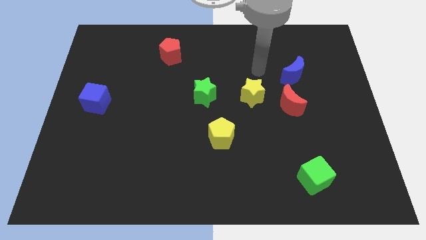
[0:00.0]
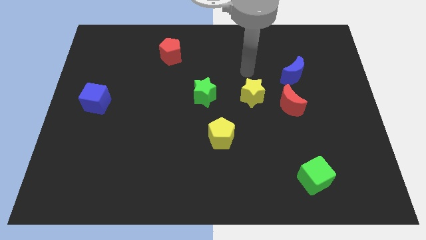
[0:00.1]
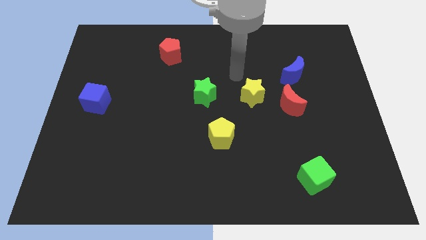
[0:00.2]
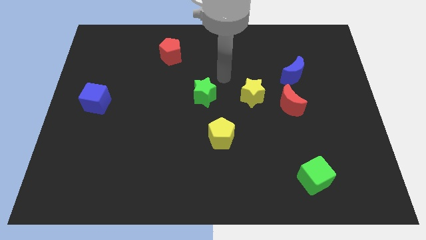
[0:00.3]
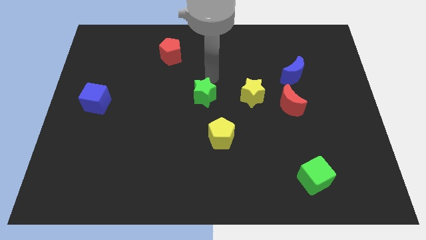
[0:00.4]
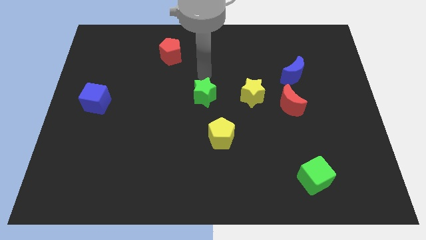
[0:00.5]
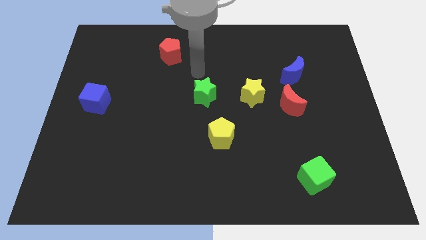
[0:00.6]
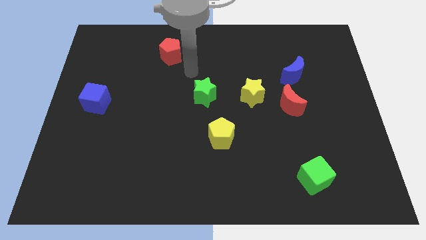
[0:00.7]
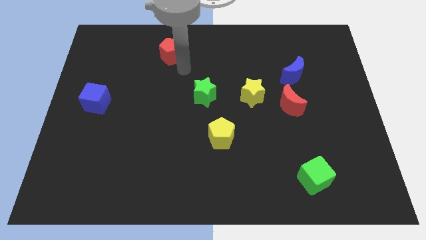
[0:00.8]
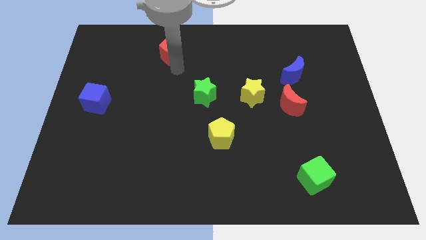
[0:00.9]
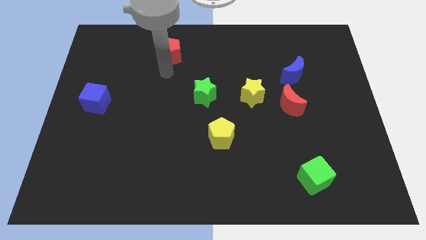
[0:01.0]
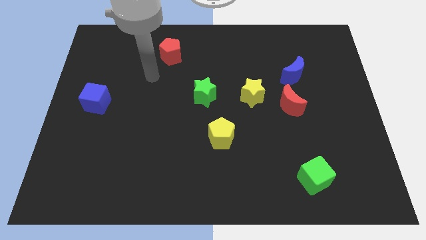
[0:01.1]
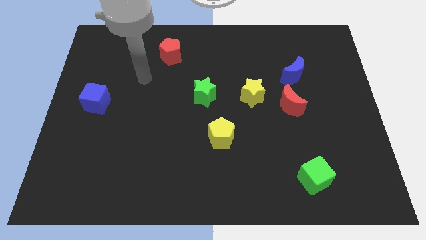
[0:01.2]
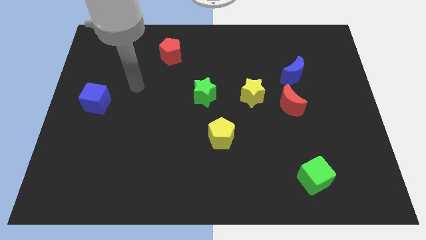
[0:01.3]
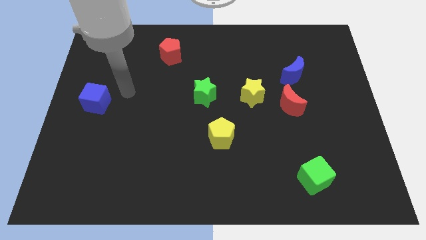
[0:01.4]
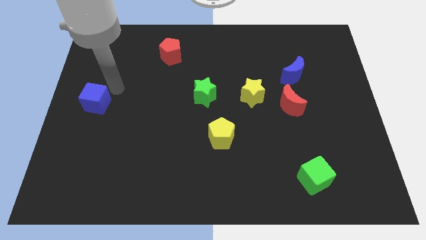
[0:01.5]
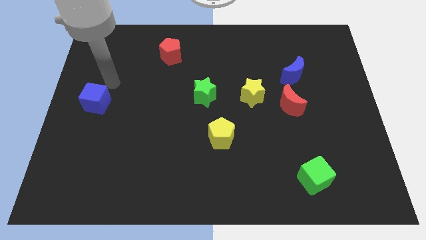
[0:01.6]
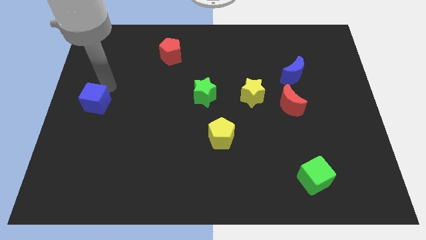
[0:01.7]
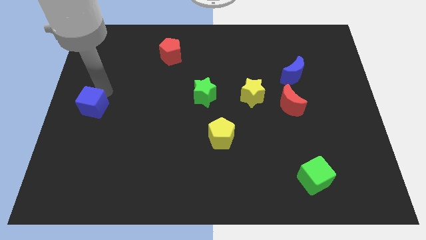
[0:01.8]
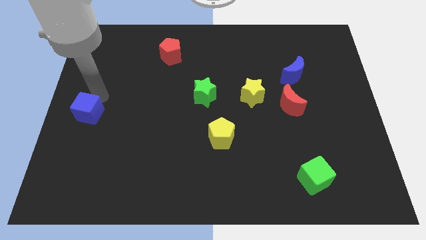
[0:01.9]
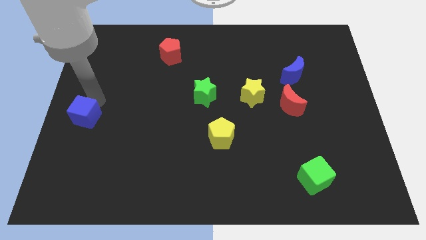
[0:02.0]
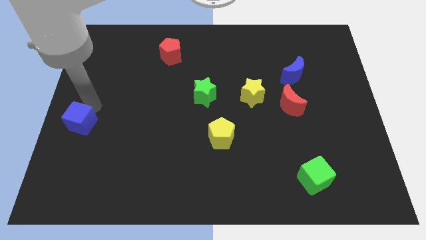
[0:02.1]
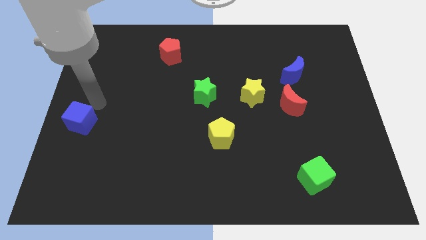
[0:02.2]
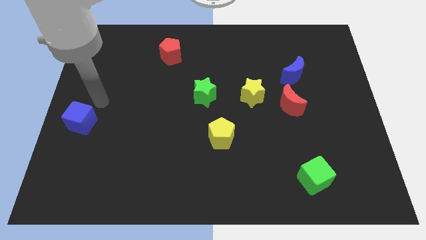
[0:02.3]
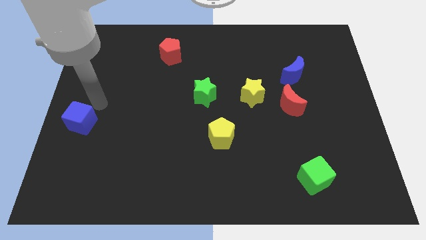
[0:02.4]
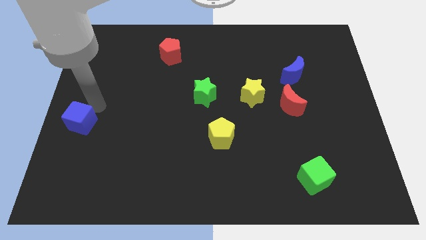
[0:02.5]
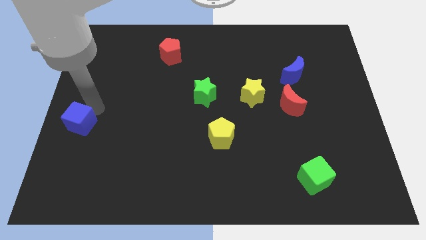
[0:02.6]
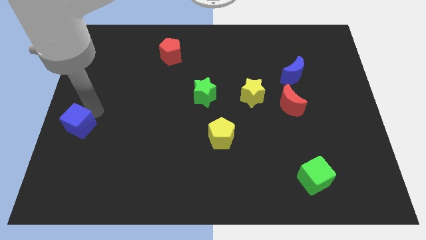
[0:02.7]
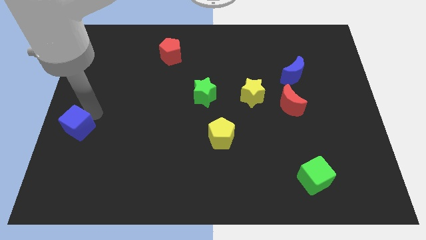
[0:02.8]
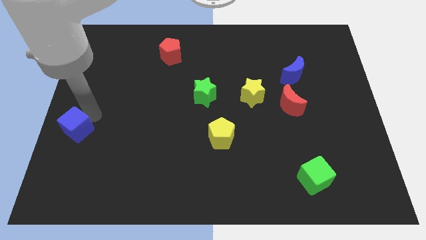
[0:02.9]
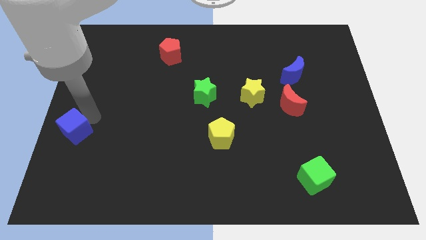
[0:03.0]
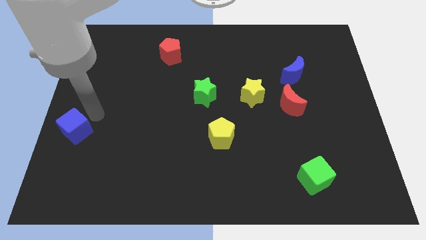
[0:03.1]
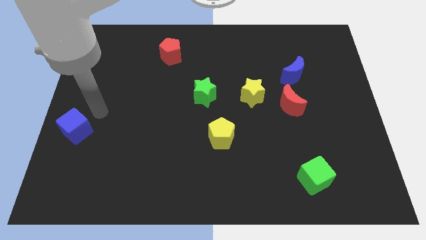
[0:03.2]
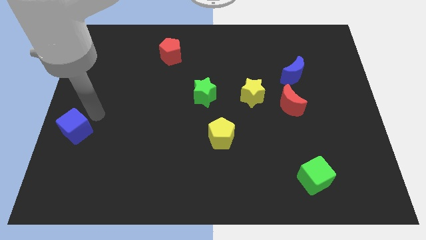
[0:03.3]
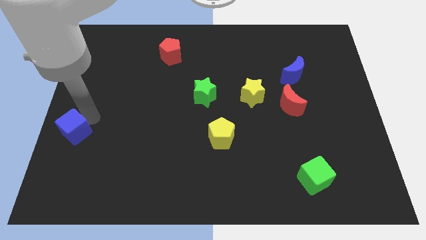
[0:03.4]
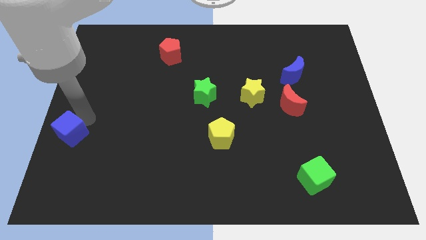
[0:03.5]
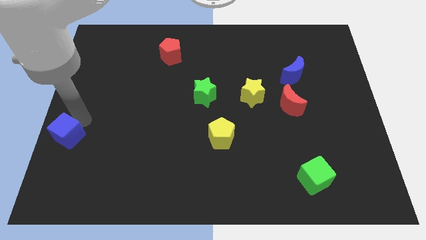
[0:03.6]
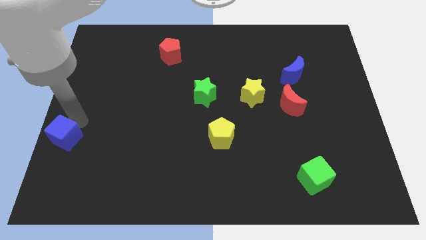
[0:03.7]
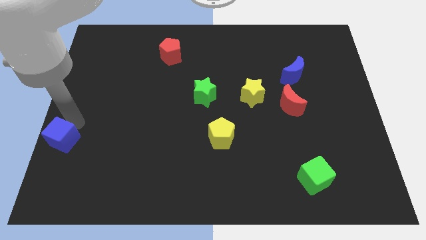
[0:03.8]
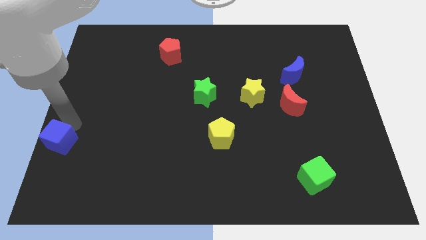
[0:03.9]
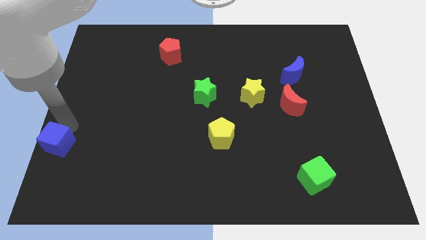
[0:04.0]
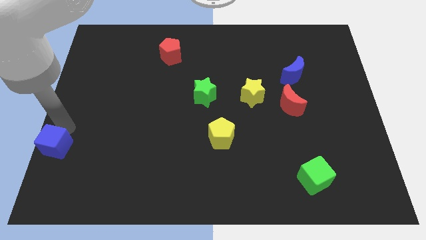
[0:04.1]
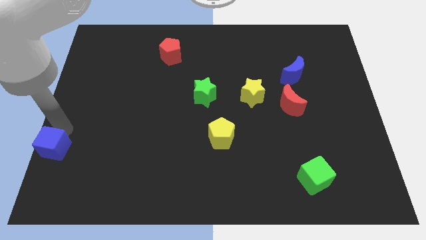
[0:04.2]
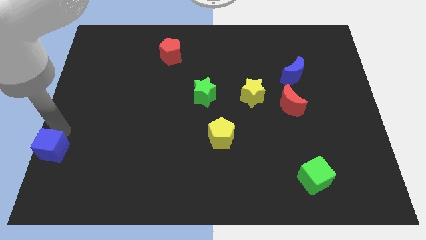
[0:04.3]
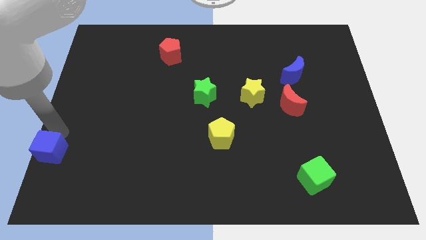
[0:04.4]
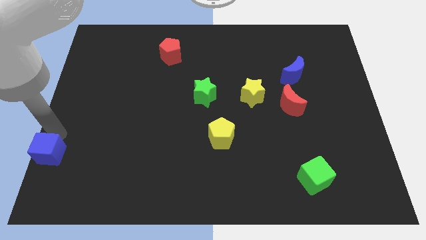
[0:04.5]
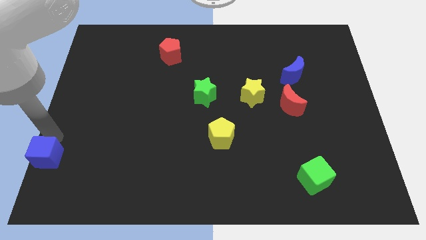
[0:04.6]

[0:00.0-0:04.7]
put the blue cube to the lower left corner

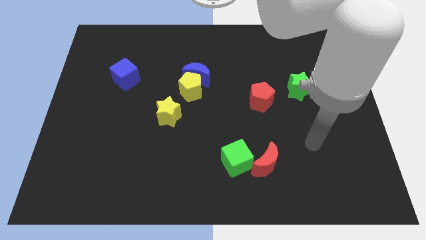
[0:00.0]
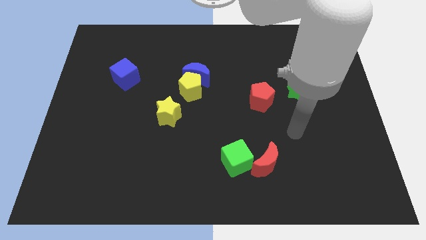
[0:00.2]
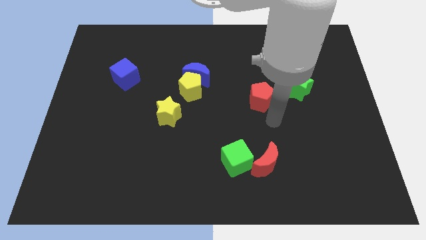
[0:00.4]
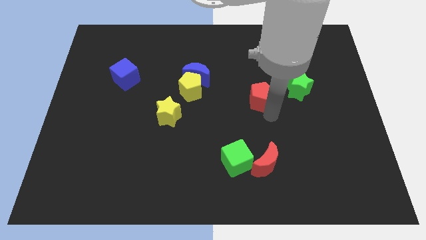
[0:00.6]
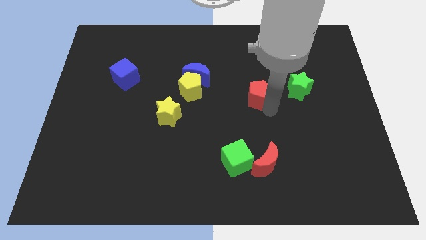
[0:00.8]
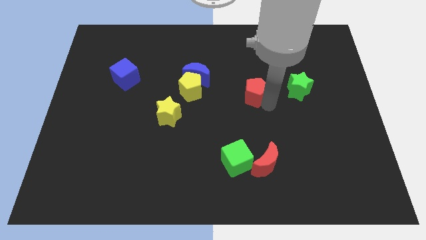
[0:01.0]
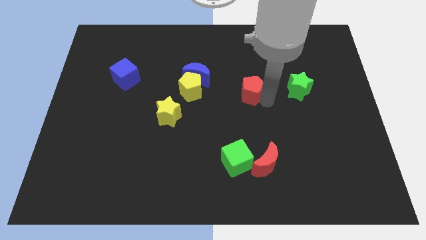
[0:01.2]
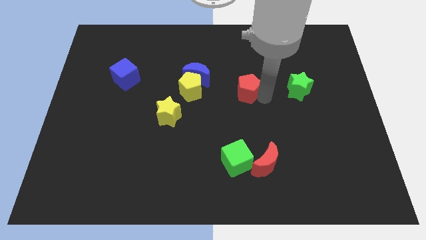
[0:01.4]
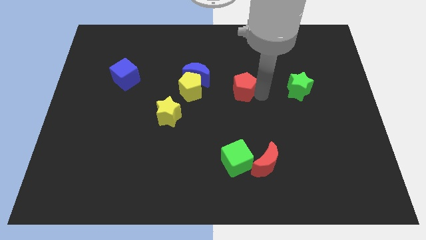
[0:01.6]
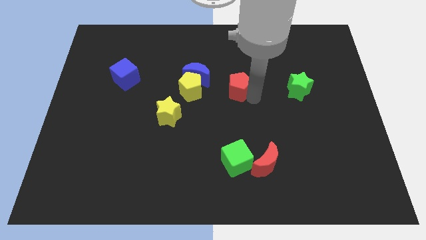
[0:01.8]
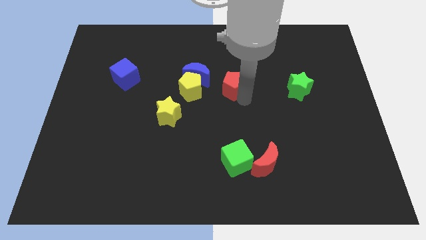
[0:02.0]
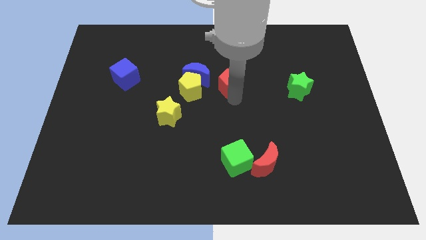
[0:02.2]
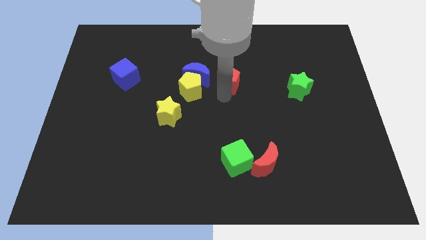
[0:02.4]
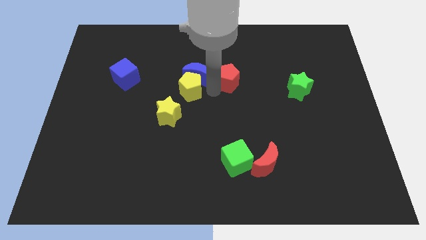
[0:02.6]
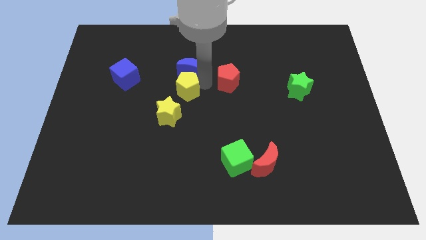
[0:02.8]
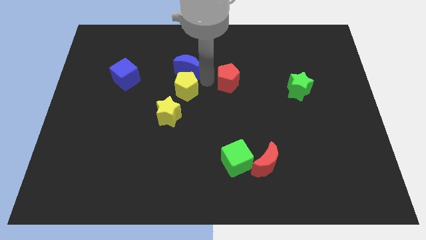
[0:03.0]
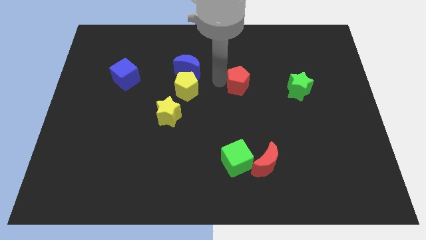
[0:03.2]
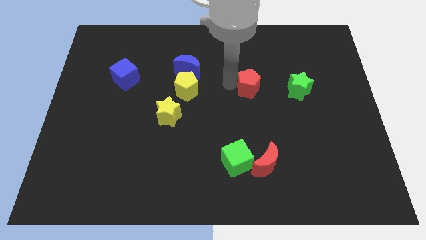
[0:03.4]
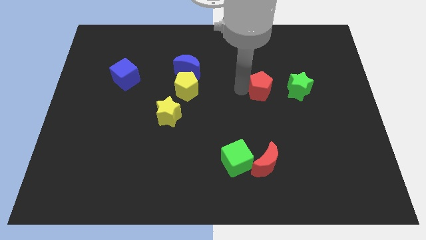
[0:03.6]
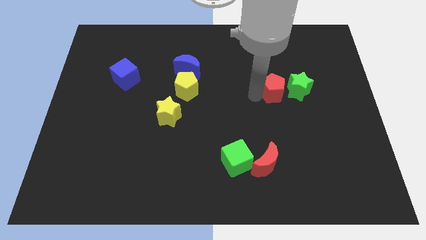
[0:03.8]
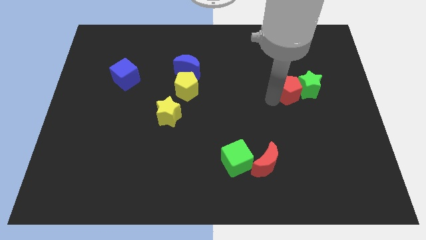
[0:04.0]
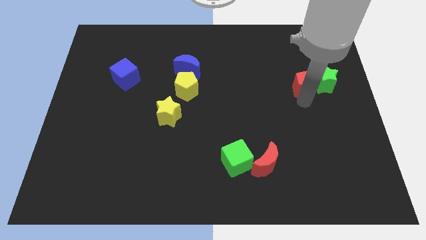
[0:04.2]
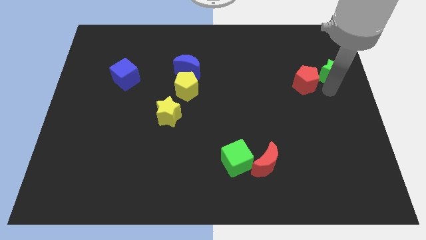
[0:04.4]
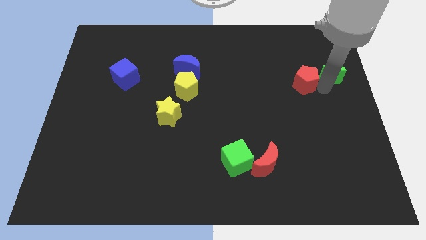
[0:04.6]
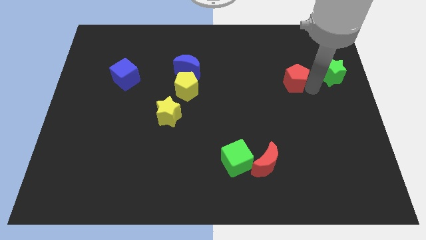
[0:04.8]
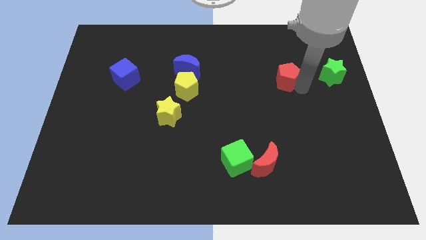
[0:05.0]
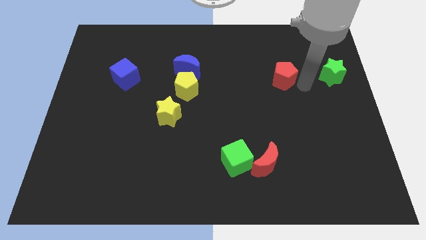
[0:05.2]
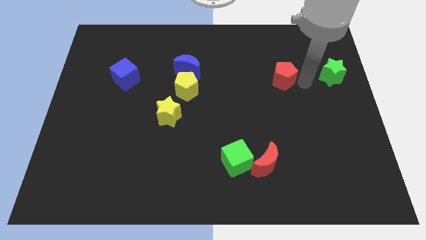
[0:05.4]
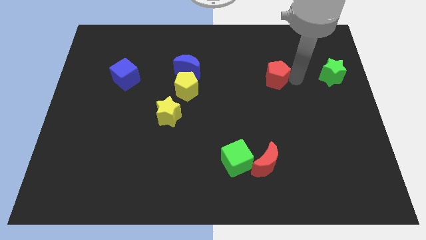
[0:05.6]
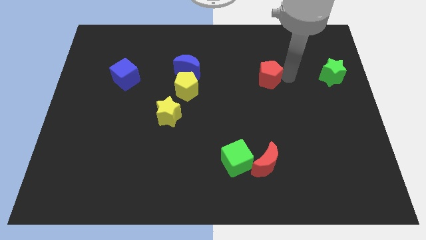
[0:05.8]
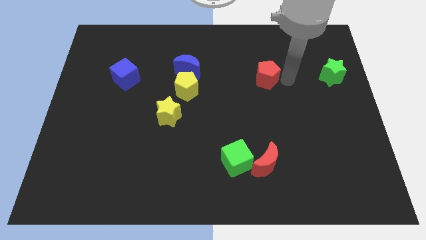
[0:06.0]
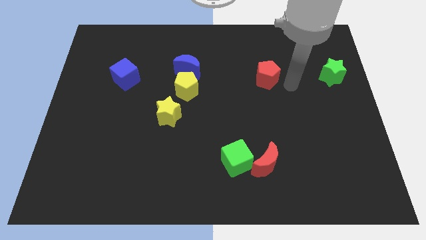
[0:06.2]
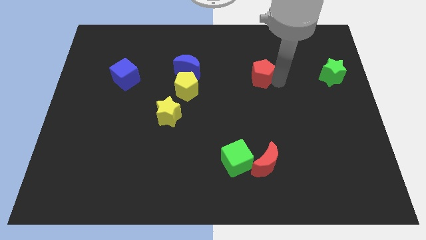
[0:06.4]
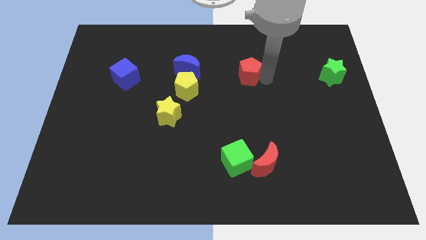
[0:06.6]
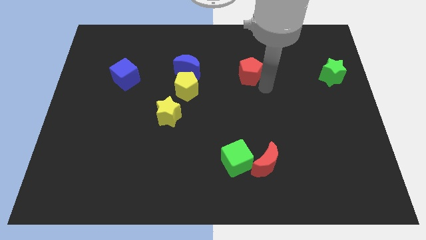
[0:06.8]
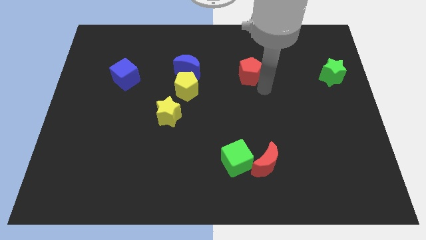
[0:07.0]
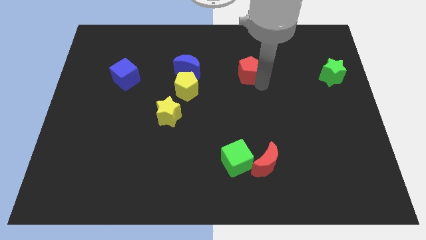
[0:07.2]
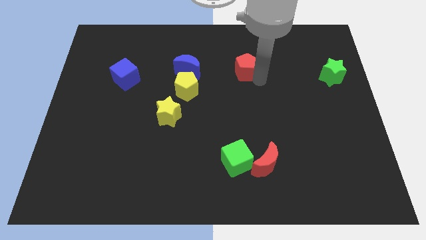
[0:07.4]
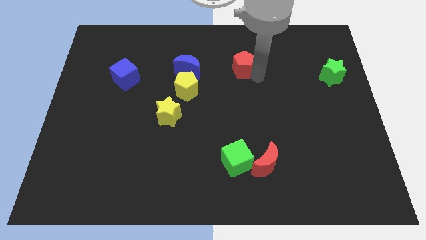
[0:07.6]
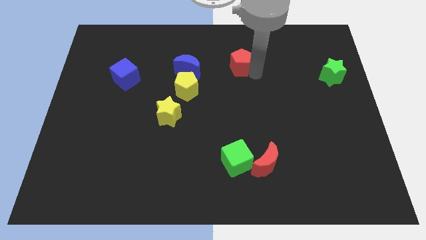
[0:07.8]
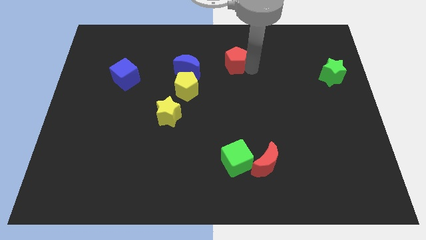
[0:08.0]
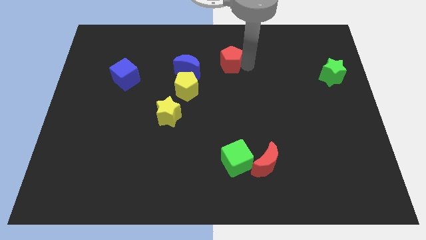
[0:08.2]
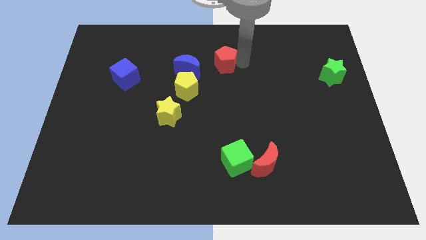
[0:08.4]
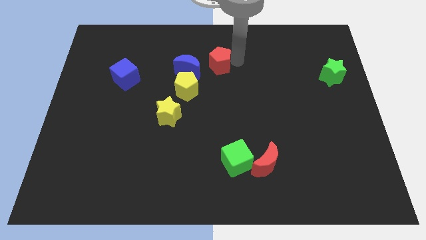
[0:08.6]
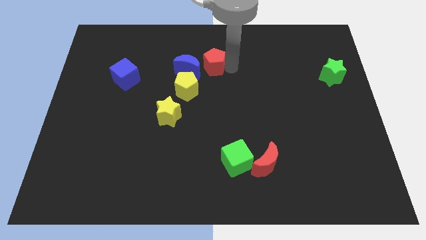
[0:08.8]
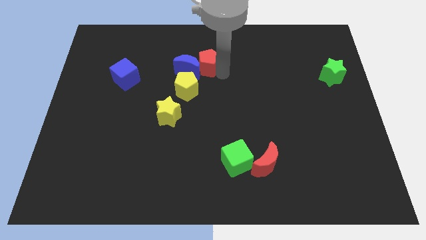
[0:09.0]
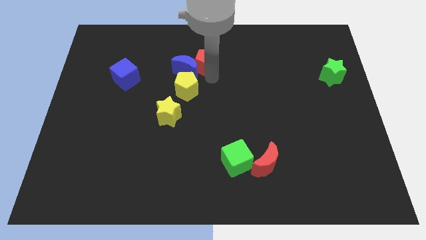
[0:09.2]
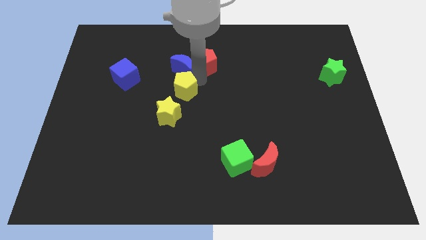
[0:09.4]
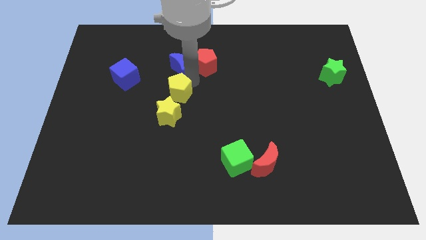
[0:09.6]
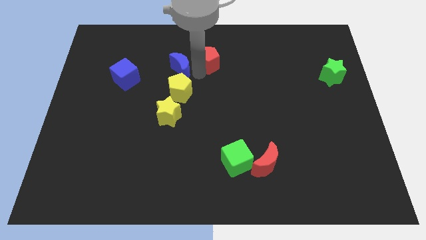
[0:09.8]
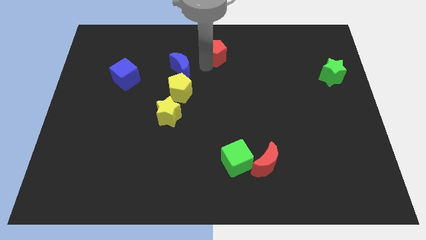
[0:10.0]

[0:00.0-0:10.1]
move the red pentagon to the towards your base
